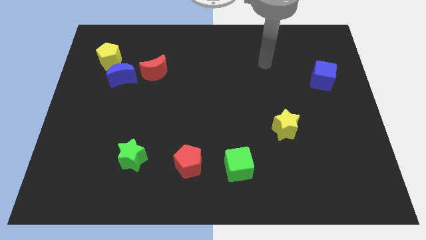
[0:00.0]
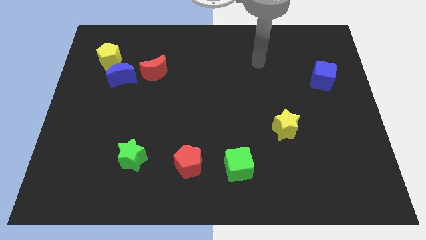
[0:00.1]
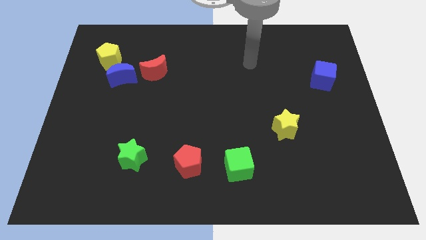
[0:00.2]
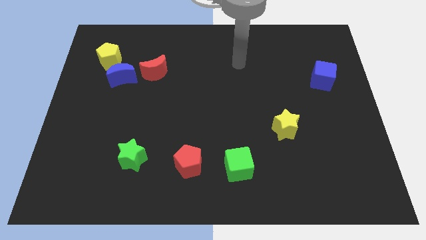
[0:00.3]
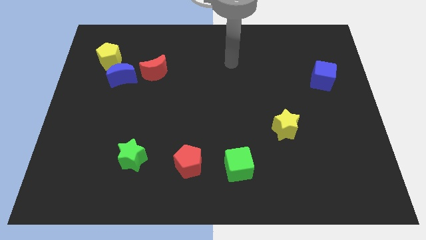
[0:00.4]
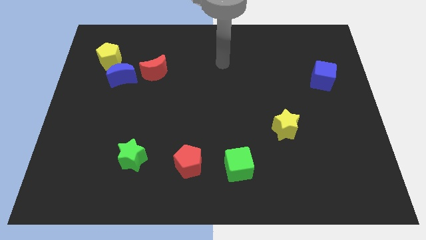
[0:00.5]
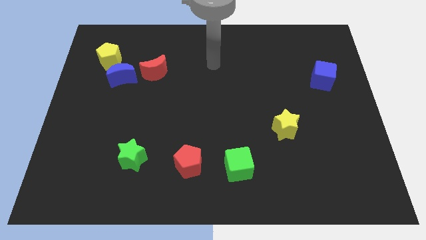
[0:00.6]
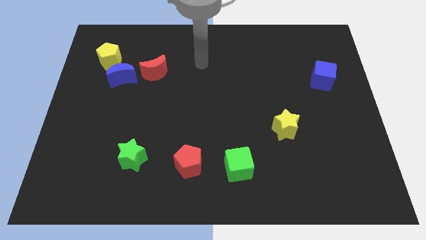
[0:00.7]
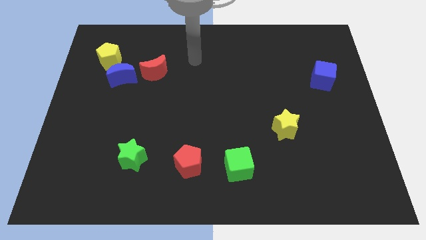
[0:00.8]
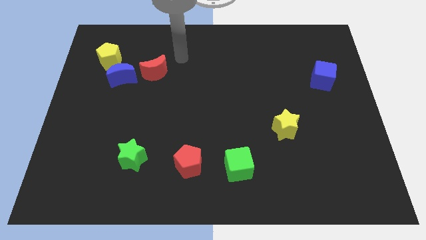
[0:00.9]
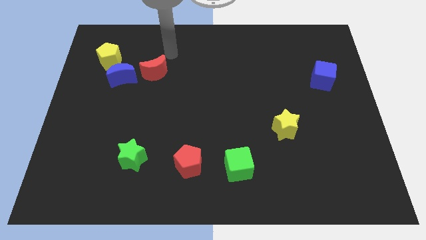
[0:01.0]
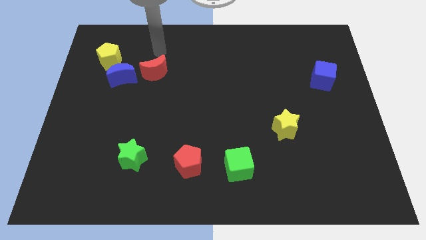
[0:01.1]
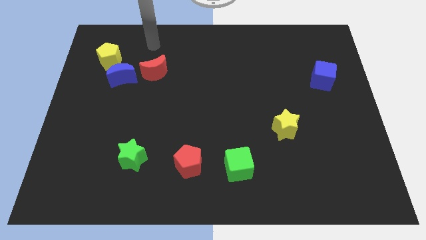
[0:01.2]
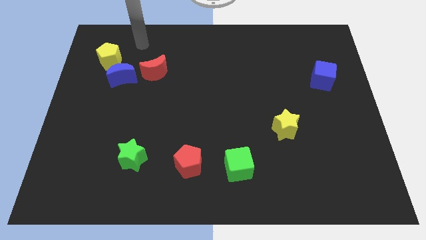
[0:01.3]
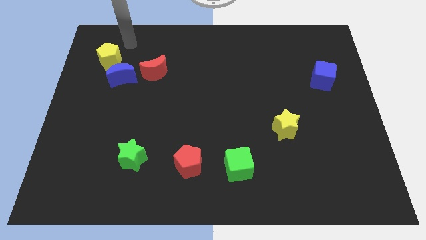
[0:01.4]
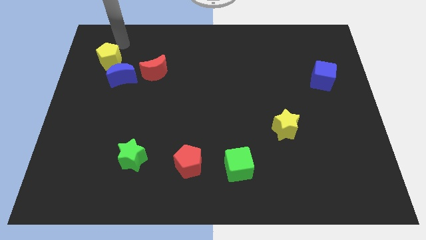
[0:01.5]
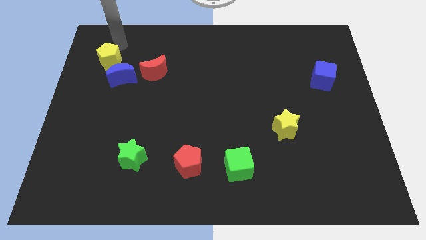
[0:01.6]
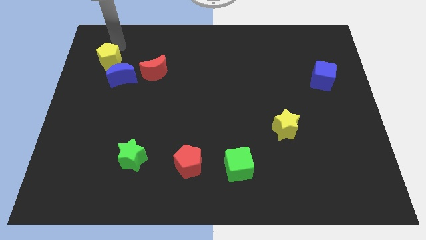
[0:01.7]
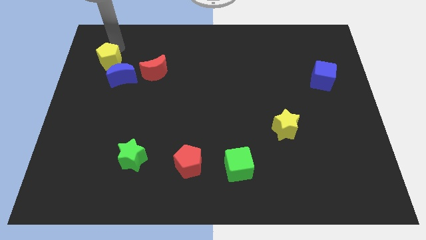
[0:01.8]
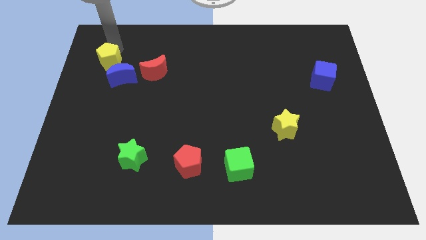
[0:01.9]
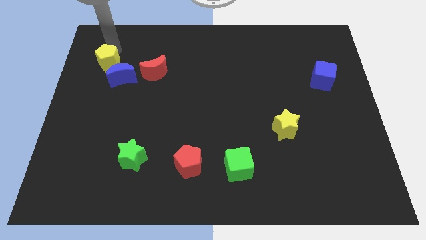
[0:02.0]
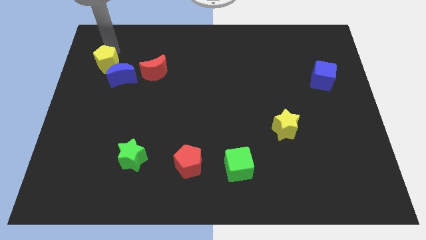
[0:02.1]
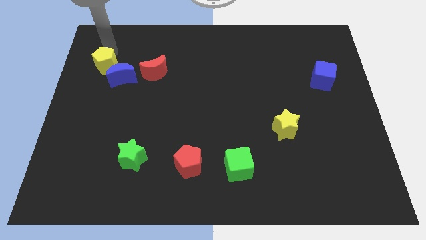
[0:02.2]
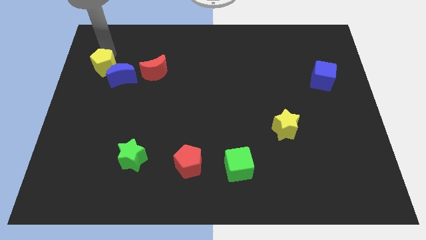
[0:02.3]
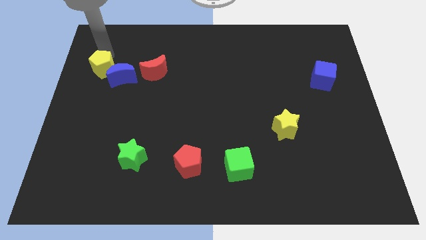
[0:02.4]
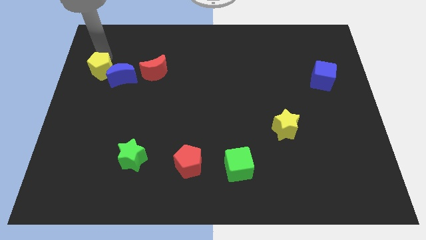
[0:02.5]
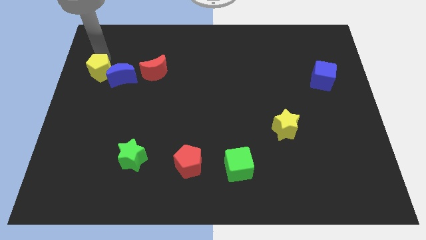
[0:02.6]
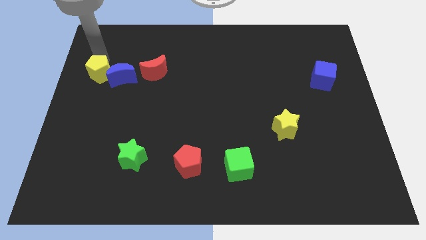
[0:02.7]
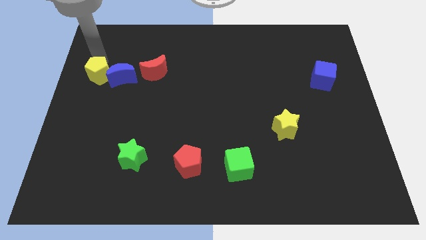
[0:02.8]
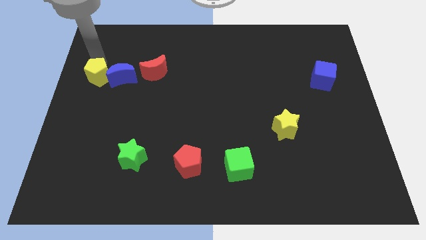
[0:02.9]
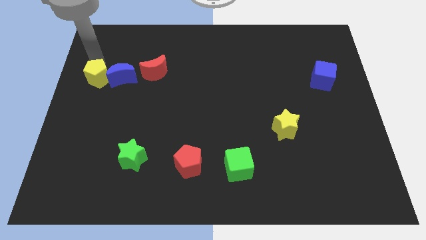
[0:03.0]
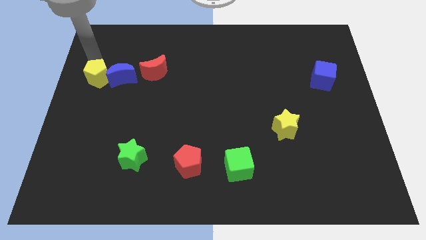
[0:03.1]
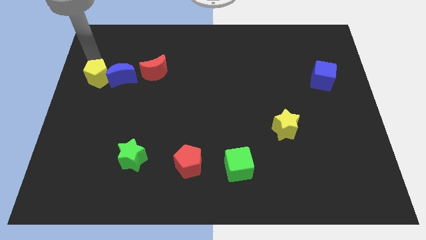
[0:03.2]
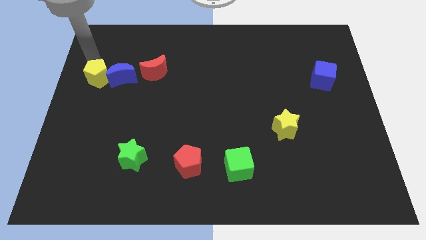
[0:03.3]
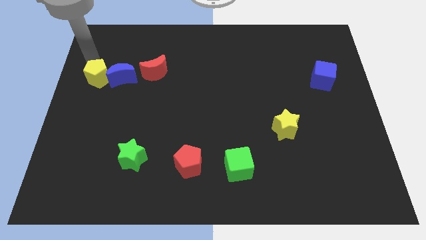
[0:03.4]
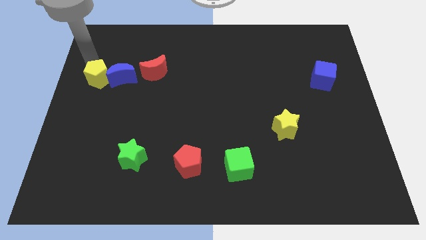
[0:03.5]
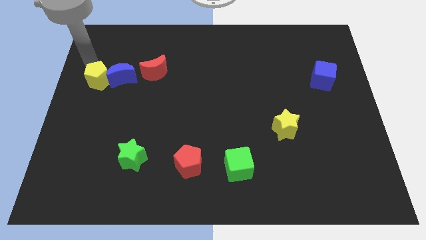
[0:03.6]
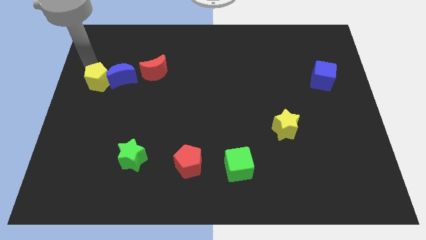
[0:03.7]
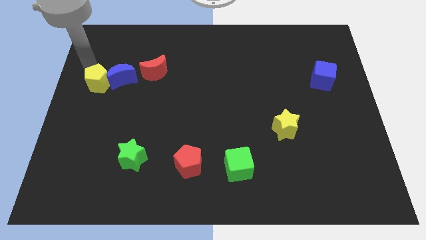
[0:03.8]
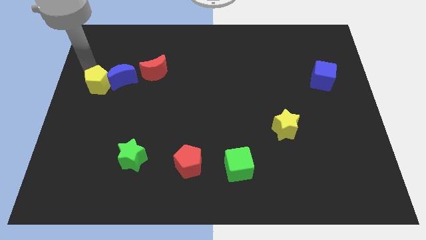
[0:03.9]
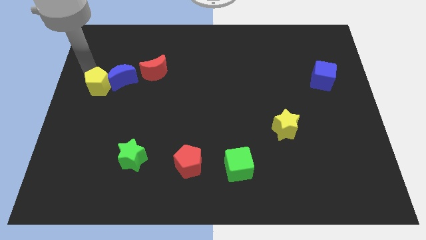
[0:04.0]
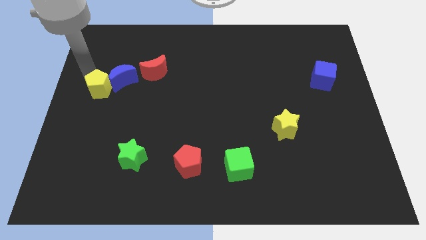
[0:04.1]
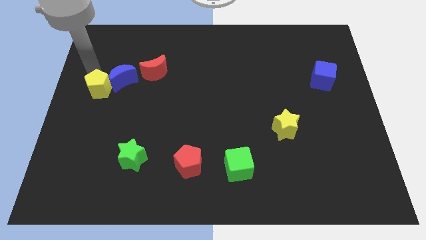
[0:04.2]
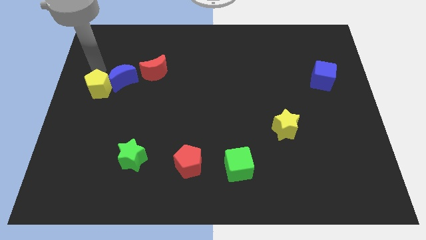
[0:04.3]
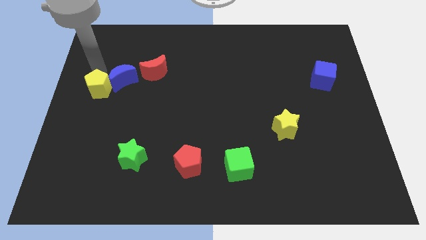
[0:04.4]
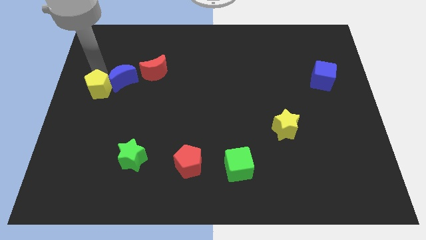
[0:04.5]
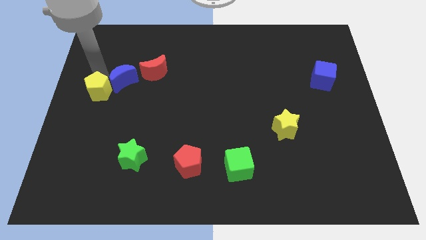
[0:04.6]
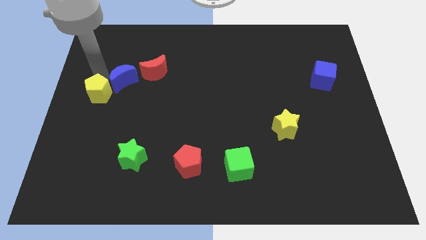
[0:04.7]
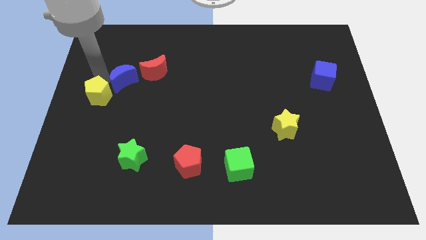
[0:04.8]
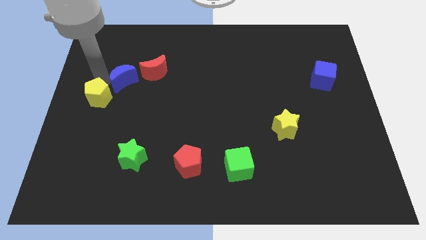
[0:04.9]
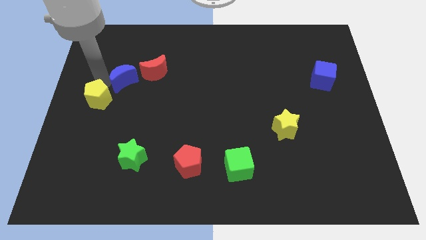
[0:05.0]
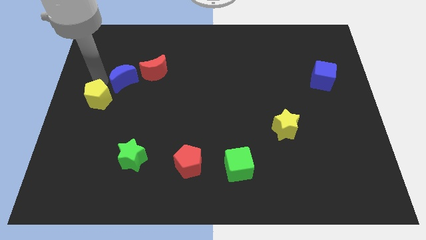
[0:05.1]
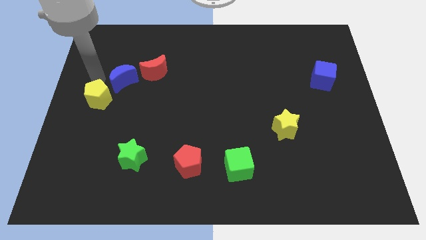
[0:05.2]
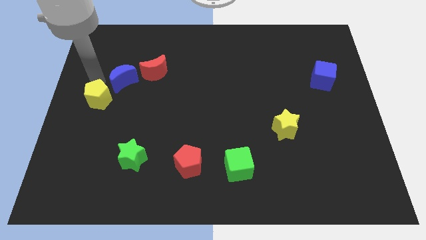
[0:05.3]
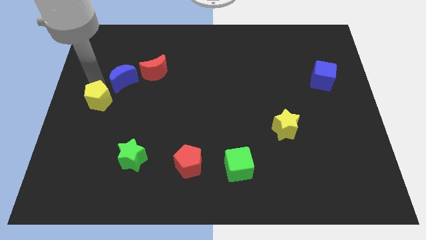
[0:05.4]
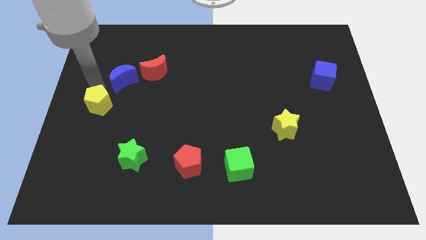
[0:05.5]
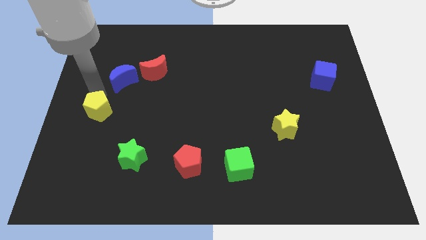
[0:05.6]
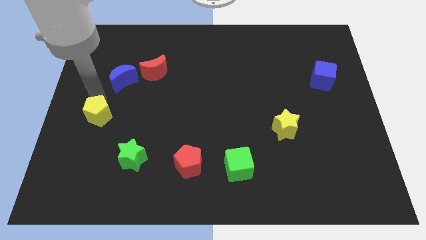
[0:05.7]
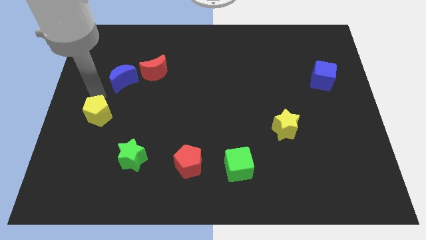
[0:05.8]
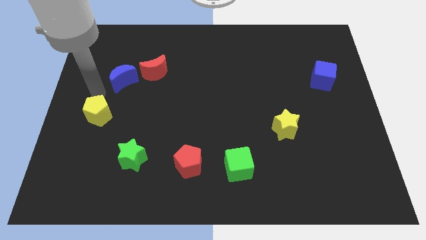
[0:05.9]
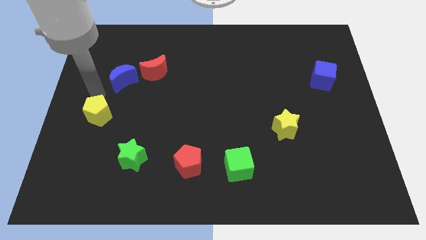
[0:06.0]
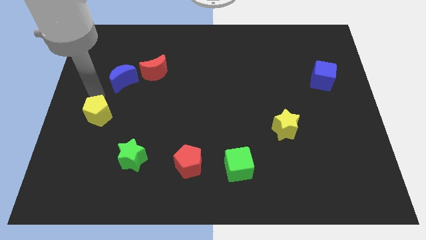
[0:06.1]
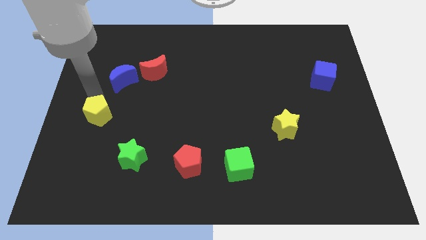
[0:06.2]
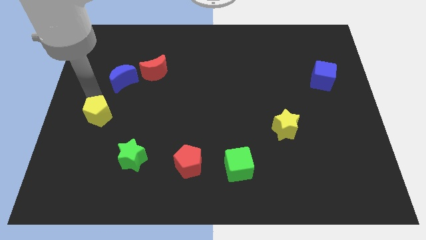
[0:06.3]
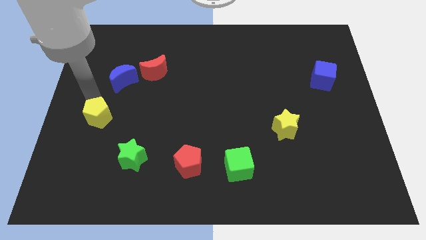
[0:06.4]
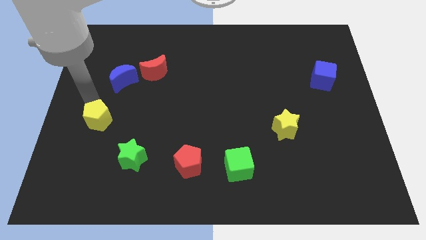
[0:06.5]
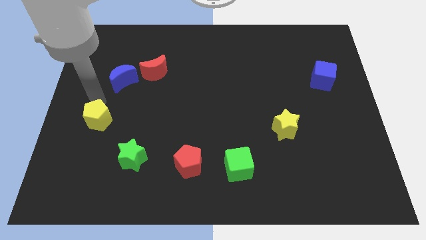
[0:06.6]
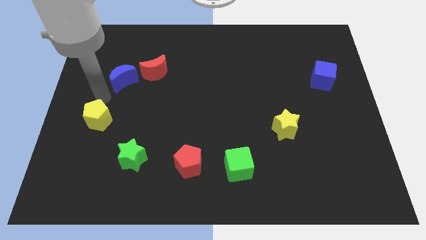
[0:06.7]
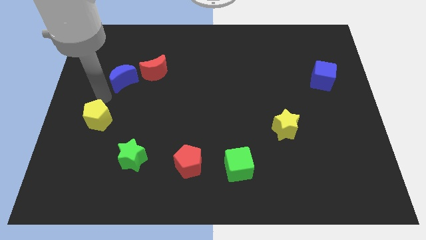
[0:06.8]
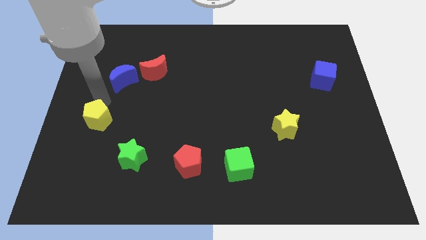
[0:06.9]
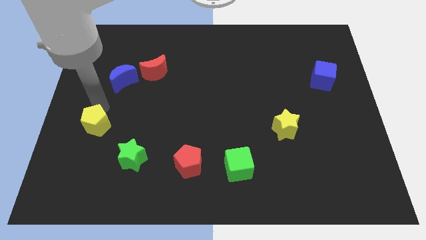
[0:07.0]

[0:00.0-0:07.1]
slide the yellow pentagon downwards

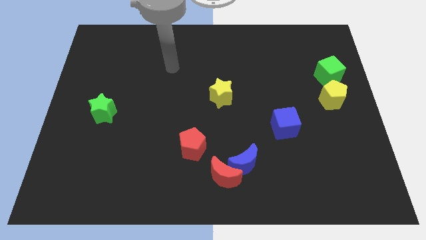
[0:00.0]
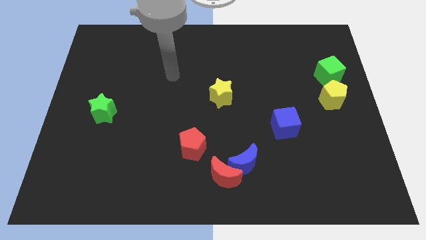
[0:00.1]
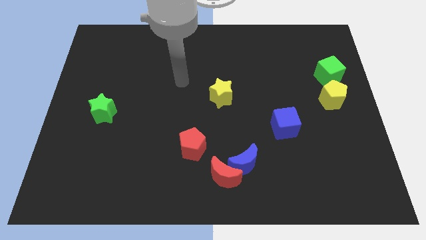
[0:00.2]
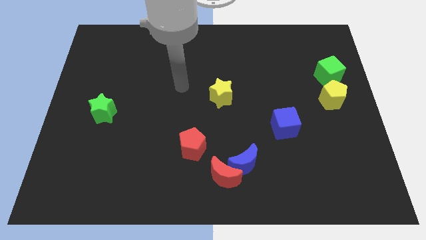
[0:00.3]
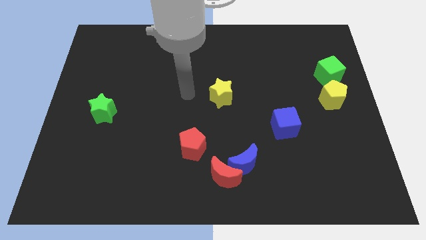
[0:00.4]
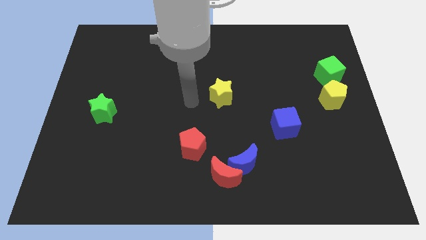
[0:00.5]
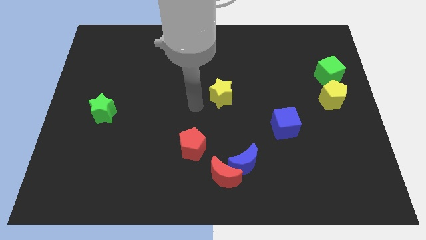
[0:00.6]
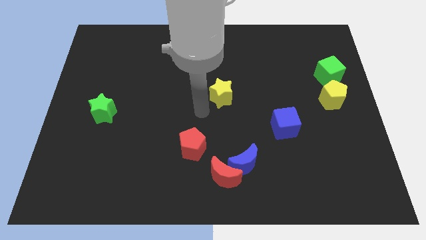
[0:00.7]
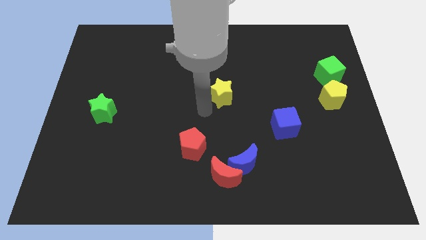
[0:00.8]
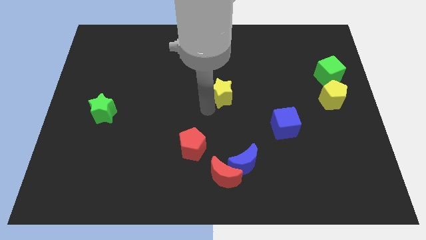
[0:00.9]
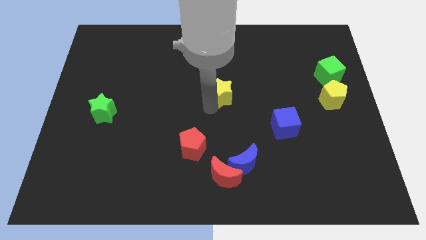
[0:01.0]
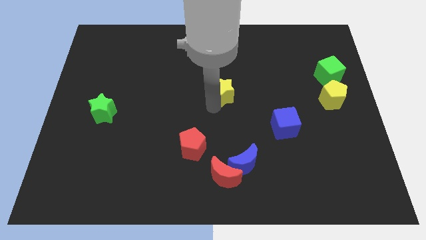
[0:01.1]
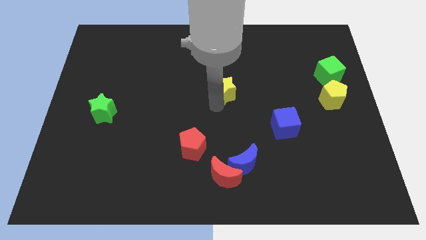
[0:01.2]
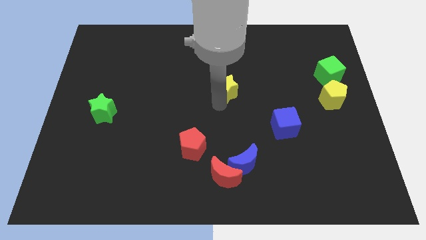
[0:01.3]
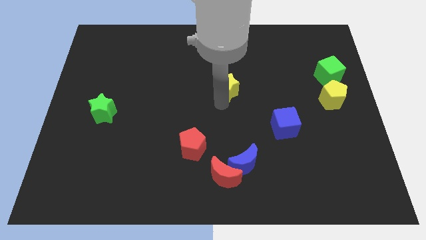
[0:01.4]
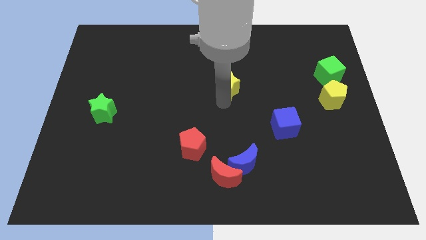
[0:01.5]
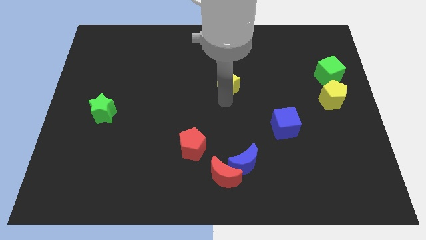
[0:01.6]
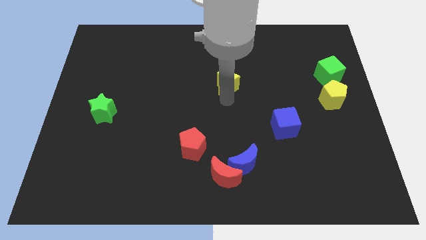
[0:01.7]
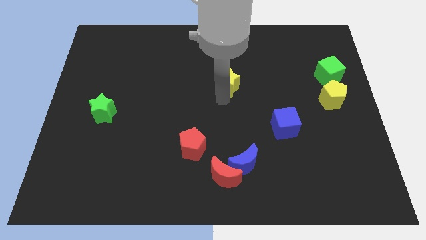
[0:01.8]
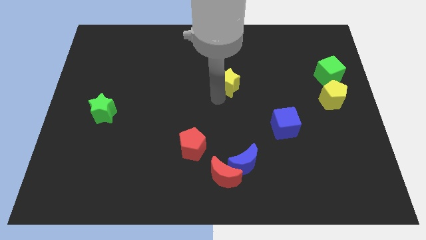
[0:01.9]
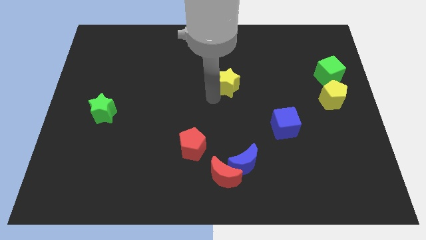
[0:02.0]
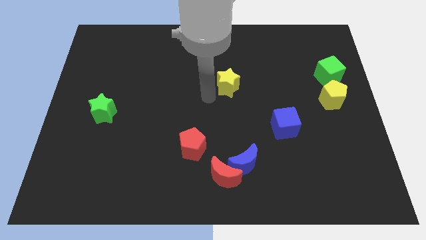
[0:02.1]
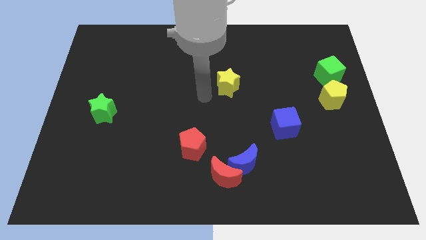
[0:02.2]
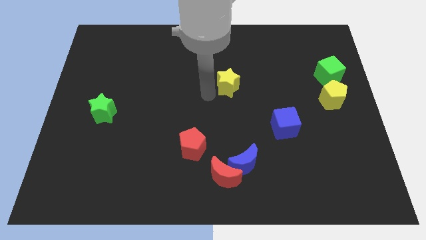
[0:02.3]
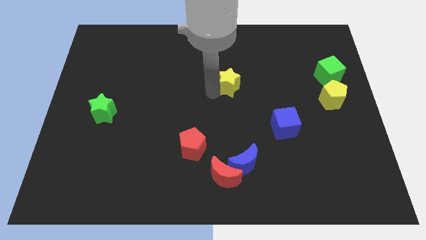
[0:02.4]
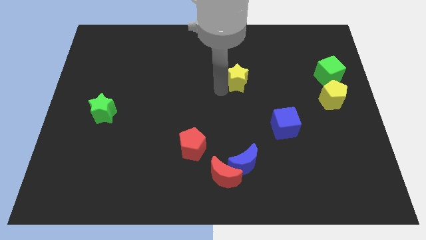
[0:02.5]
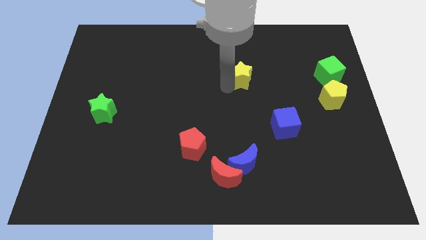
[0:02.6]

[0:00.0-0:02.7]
slightly slide the yellow star up and right diagonally
